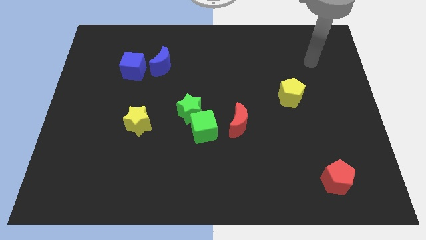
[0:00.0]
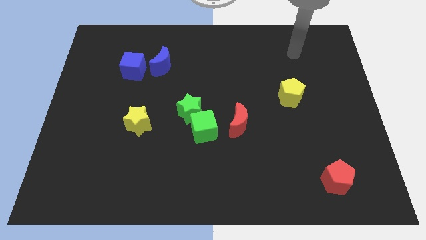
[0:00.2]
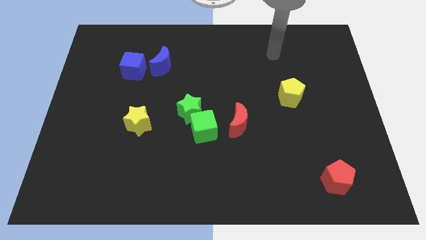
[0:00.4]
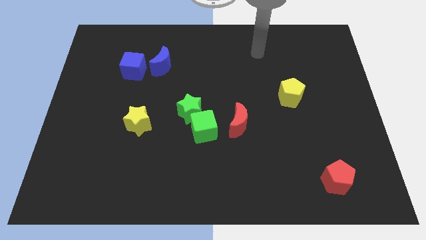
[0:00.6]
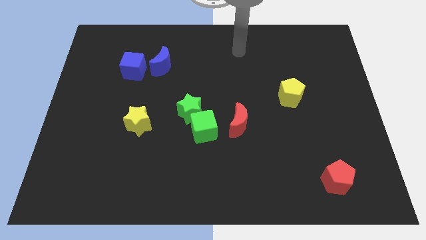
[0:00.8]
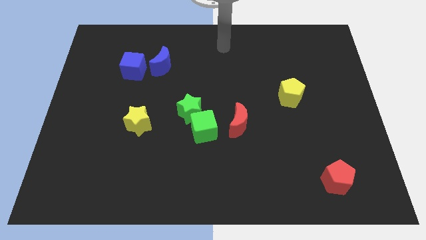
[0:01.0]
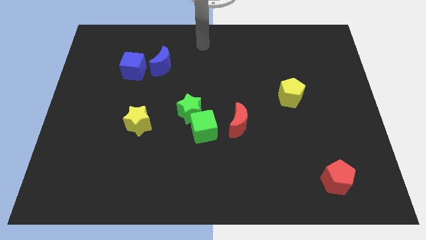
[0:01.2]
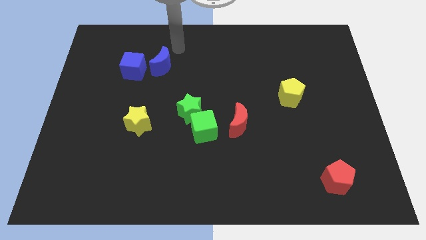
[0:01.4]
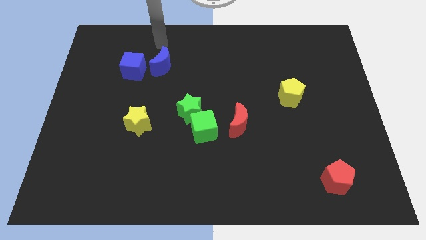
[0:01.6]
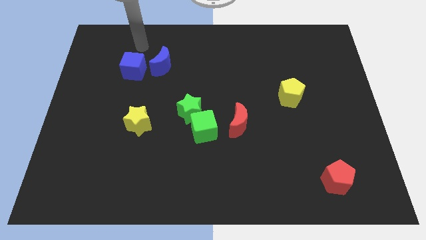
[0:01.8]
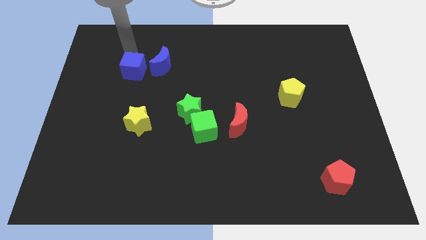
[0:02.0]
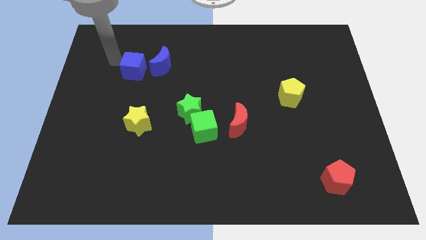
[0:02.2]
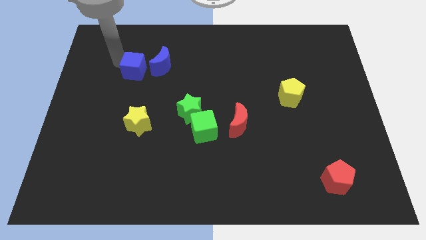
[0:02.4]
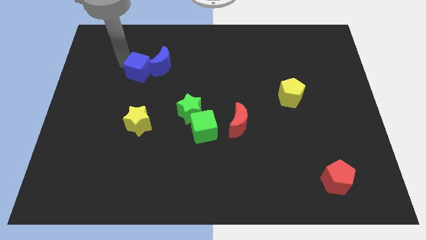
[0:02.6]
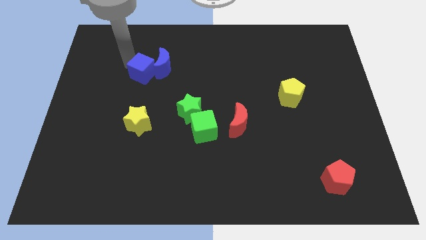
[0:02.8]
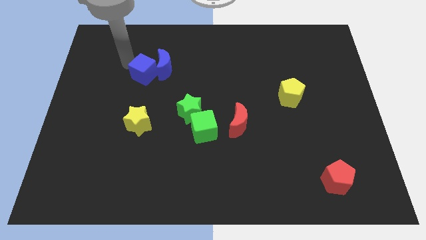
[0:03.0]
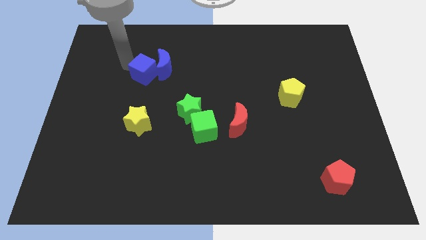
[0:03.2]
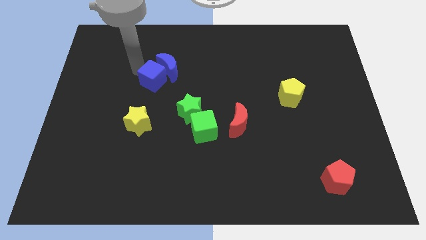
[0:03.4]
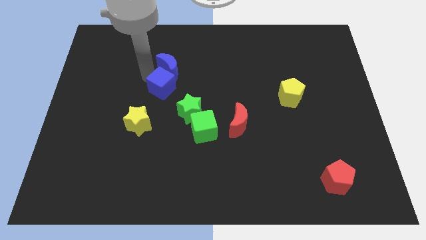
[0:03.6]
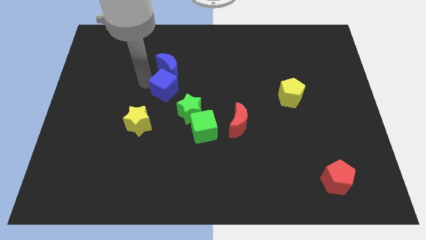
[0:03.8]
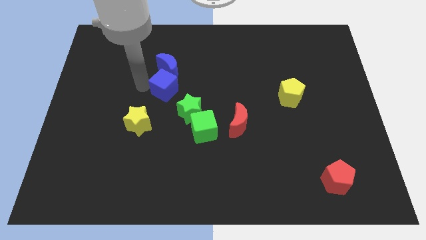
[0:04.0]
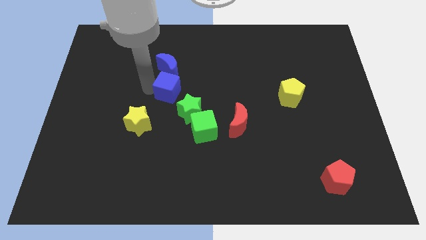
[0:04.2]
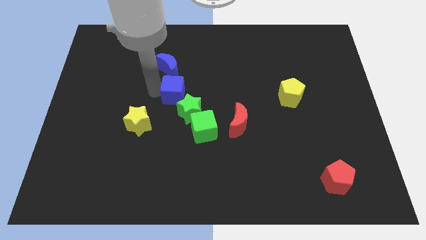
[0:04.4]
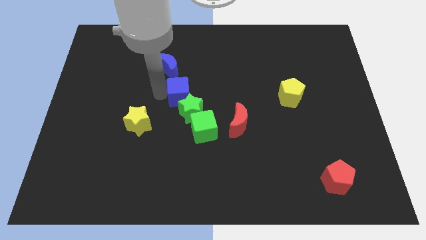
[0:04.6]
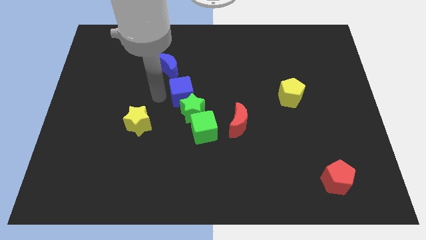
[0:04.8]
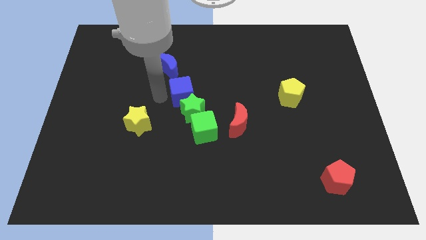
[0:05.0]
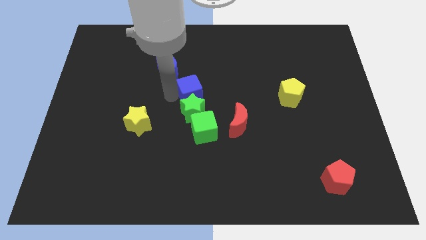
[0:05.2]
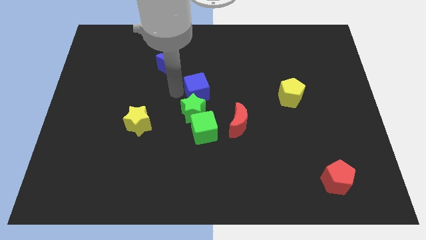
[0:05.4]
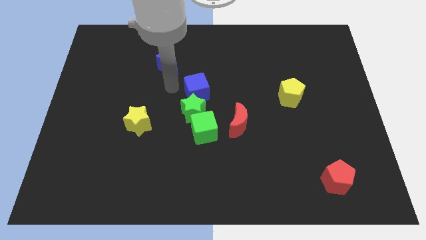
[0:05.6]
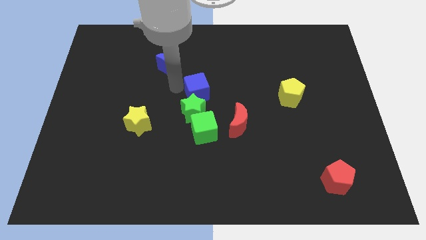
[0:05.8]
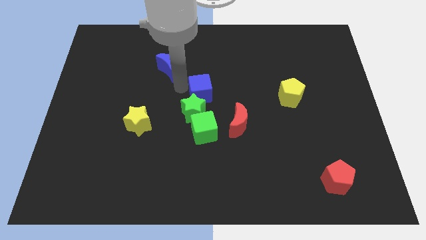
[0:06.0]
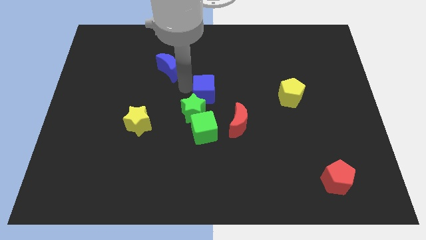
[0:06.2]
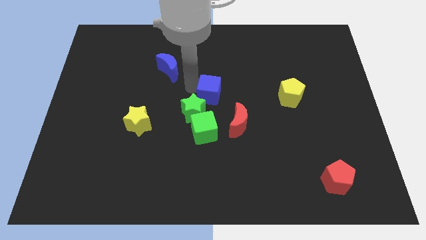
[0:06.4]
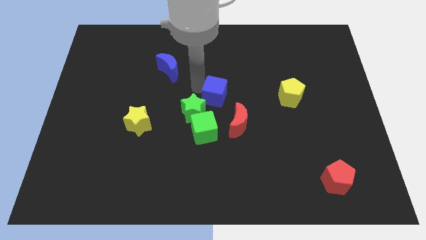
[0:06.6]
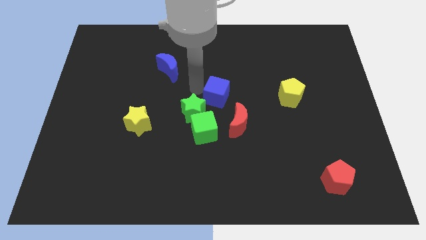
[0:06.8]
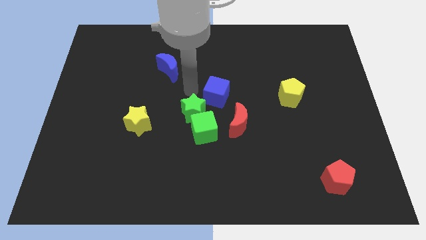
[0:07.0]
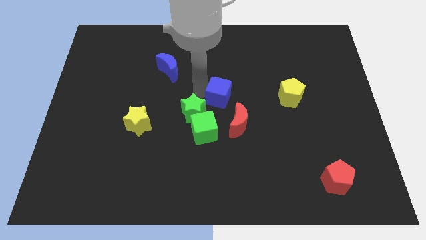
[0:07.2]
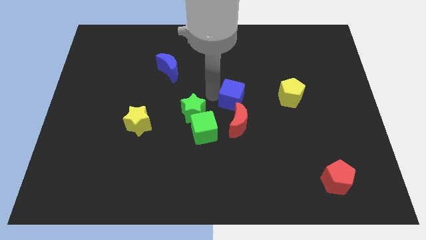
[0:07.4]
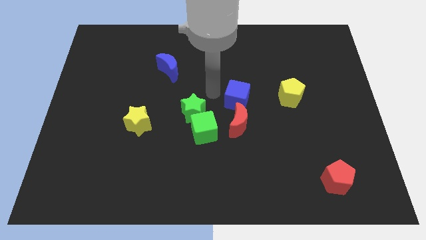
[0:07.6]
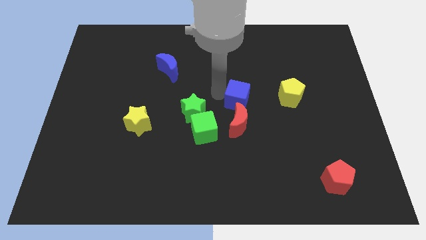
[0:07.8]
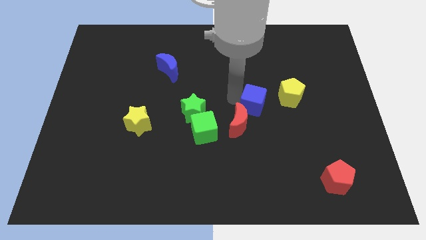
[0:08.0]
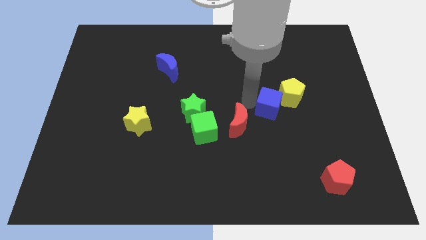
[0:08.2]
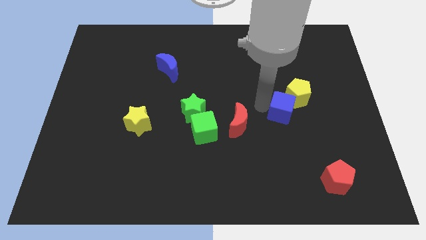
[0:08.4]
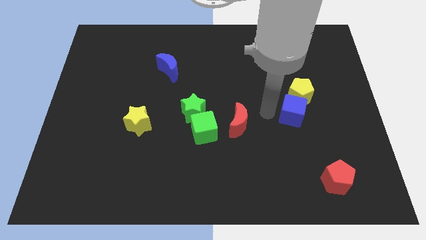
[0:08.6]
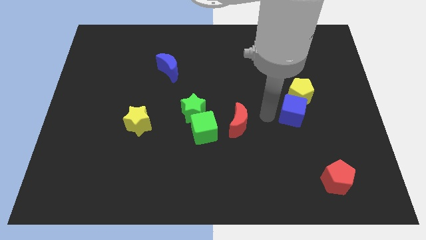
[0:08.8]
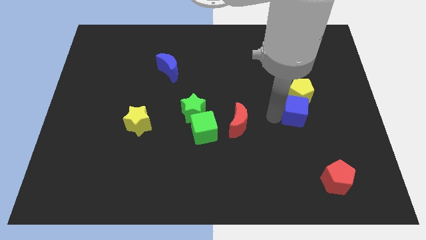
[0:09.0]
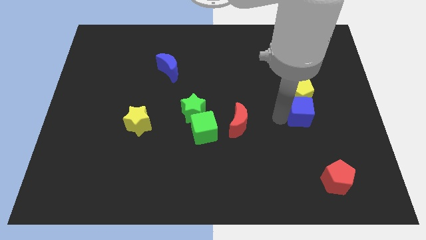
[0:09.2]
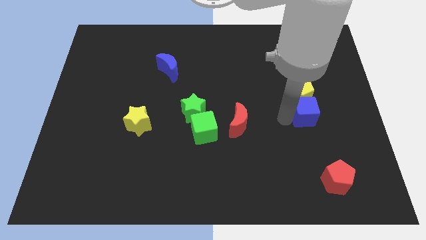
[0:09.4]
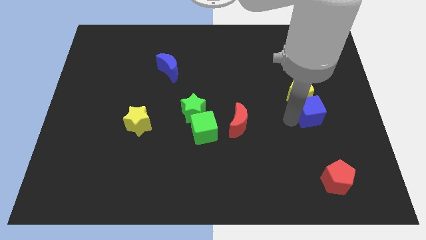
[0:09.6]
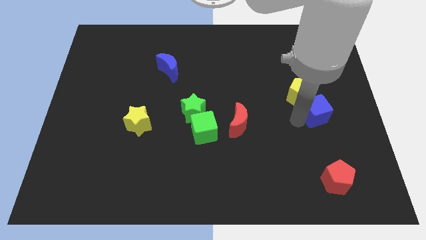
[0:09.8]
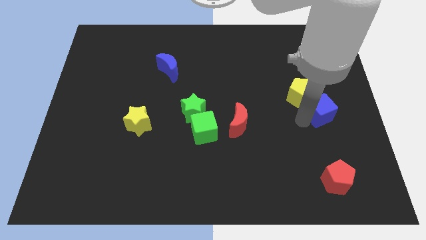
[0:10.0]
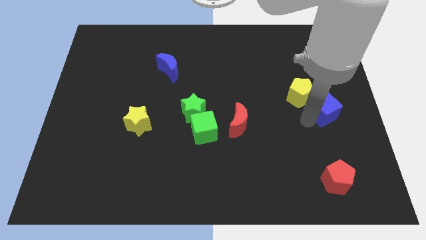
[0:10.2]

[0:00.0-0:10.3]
slide the blue cube to the right side of the board

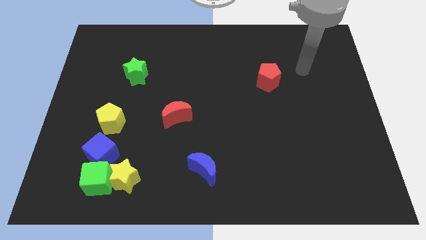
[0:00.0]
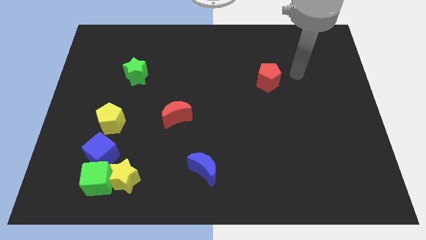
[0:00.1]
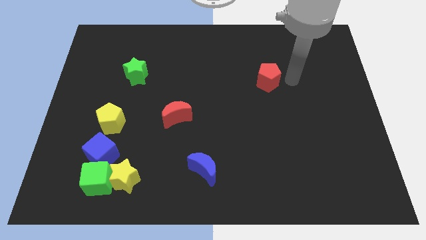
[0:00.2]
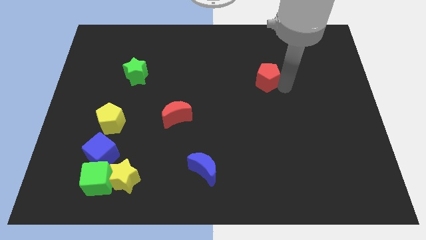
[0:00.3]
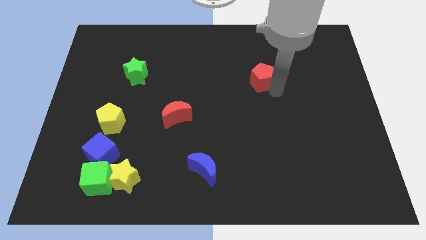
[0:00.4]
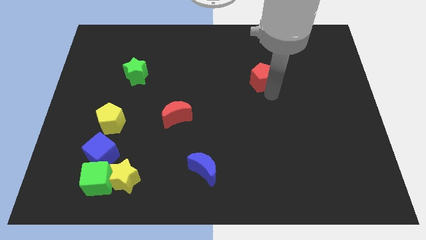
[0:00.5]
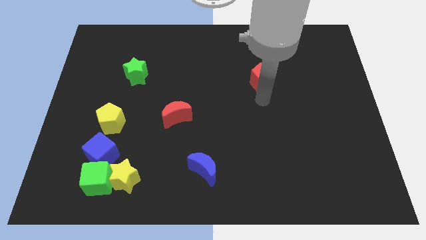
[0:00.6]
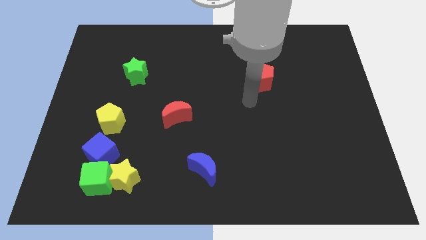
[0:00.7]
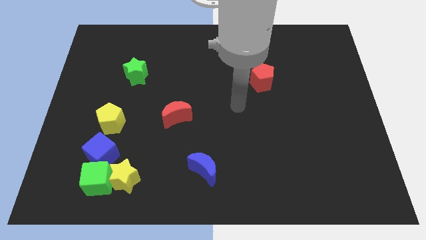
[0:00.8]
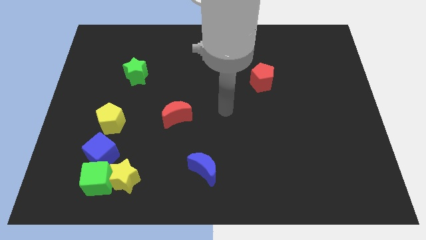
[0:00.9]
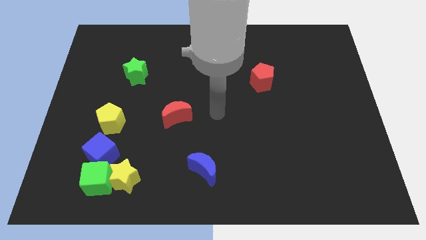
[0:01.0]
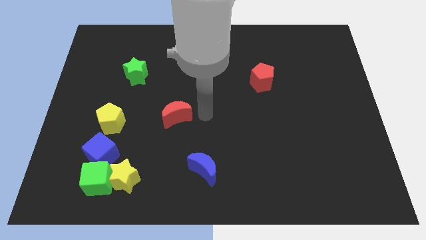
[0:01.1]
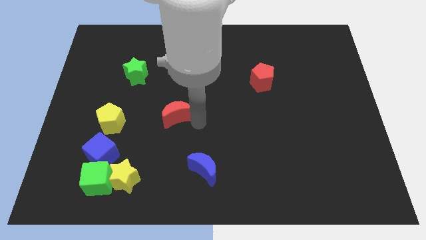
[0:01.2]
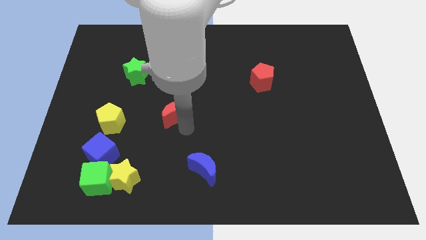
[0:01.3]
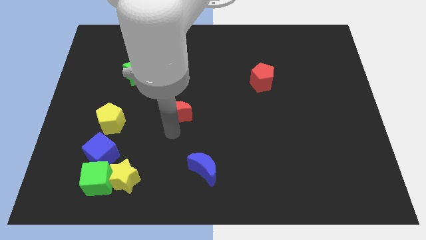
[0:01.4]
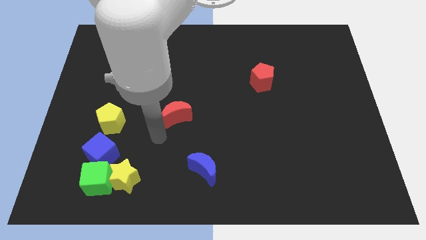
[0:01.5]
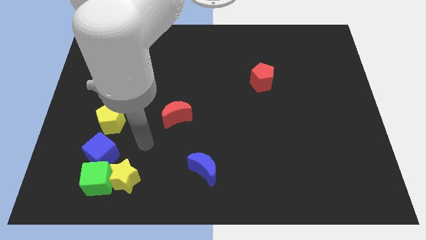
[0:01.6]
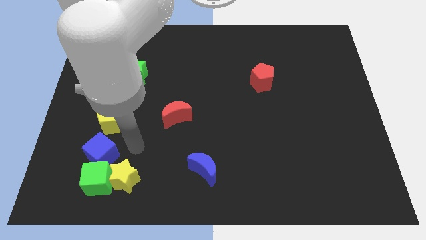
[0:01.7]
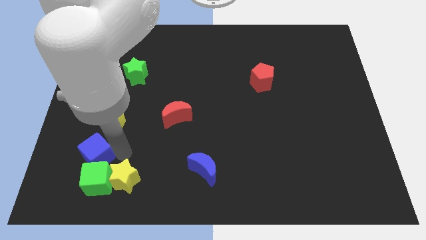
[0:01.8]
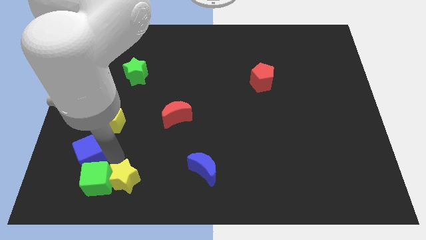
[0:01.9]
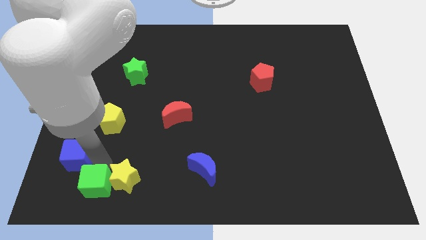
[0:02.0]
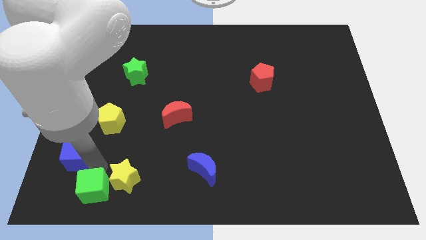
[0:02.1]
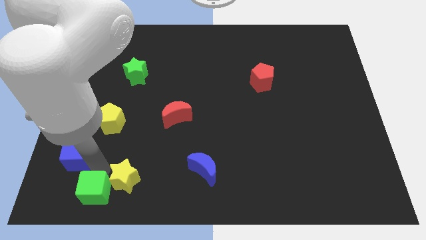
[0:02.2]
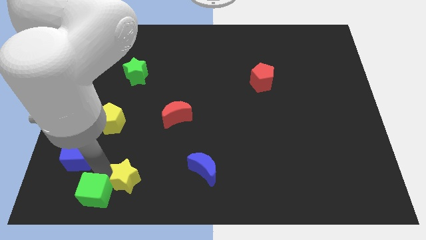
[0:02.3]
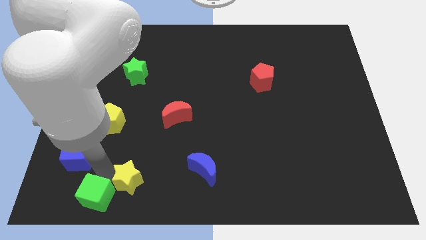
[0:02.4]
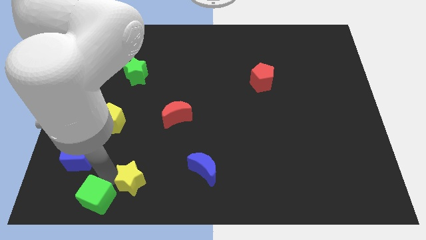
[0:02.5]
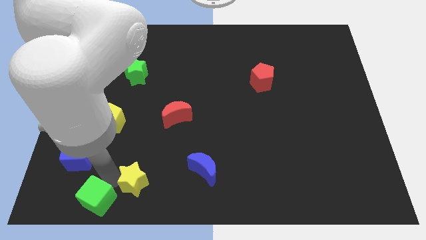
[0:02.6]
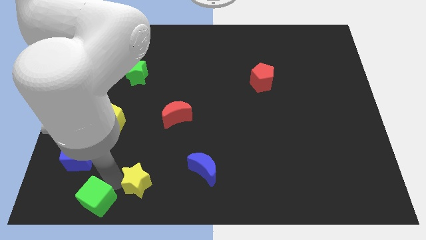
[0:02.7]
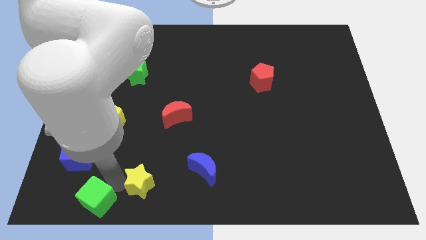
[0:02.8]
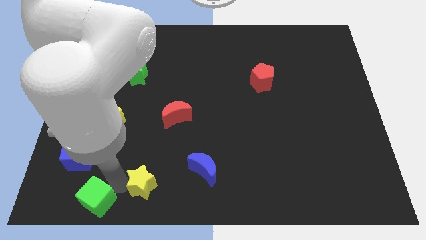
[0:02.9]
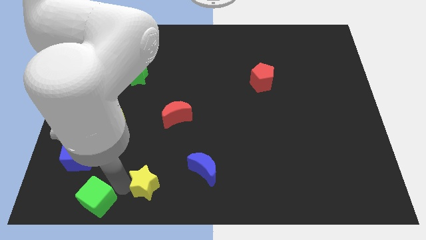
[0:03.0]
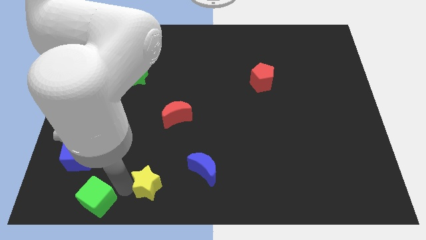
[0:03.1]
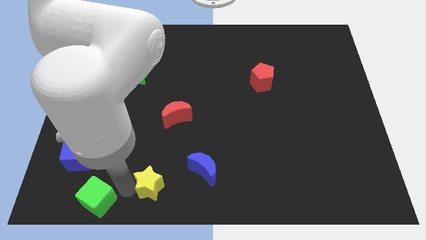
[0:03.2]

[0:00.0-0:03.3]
move the yellow star to the bottom side
